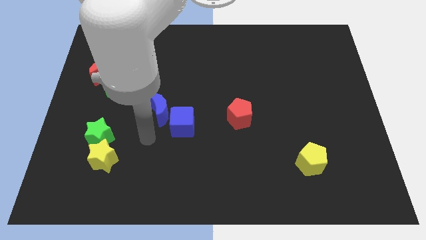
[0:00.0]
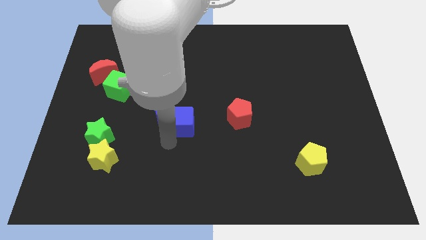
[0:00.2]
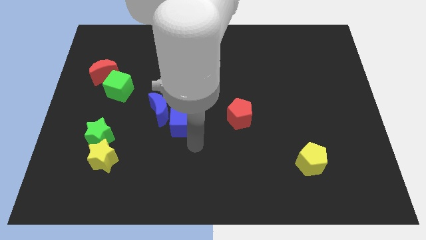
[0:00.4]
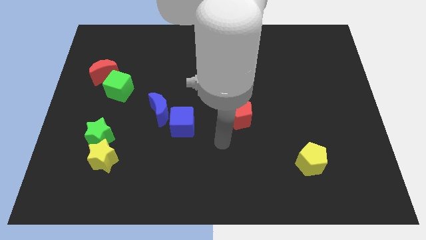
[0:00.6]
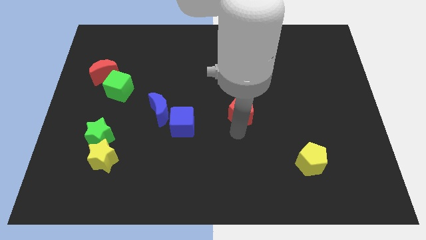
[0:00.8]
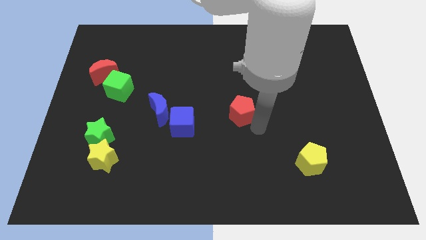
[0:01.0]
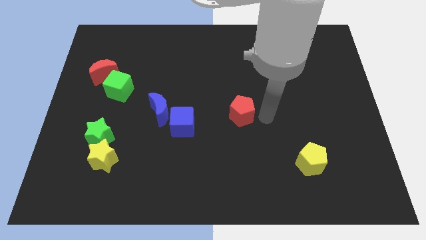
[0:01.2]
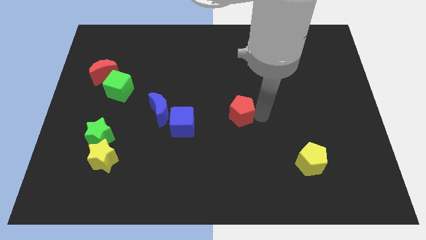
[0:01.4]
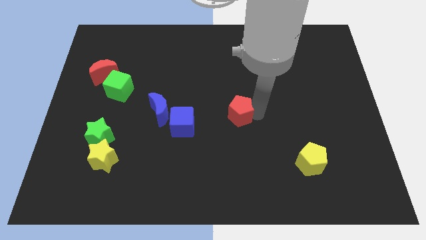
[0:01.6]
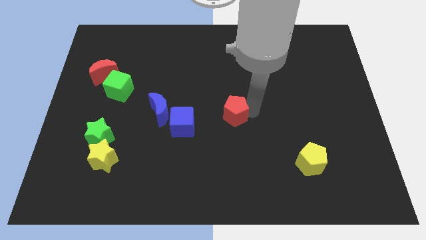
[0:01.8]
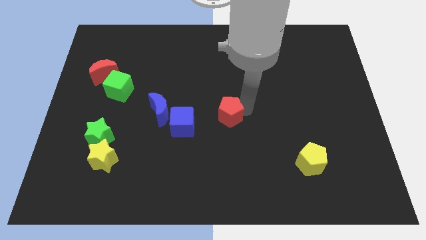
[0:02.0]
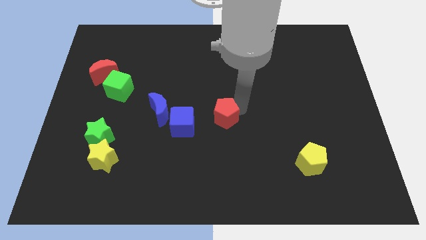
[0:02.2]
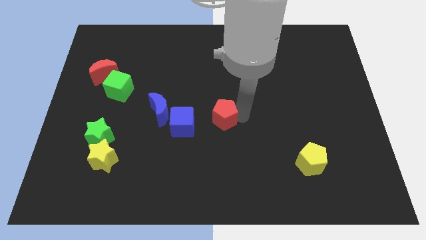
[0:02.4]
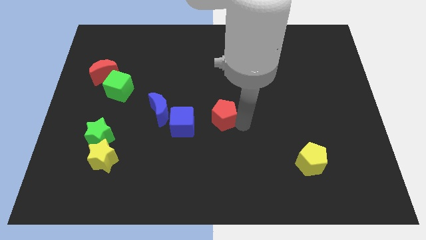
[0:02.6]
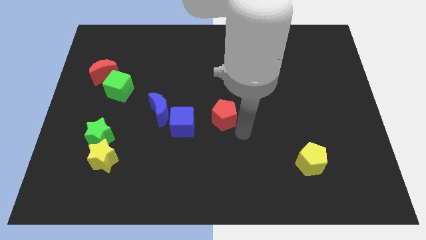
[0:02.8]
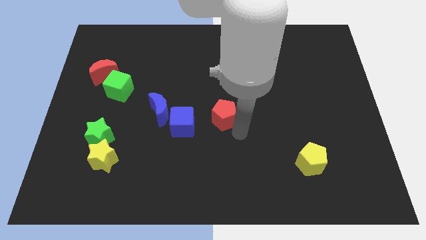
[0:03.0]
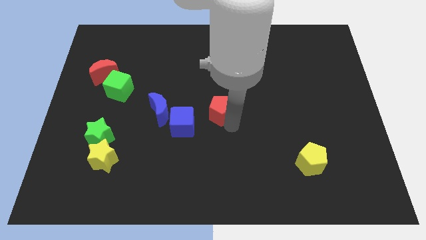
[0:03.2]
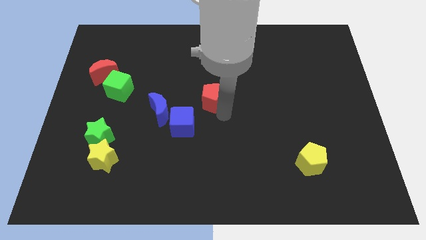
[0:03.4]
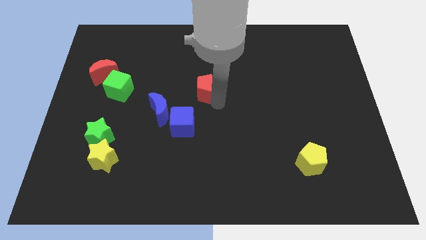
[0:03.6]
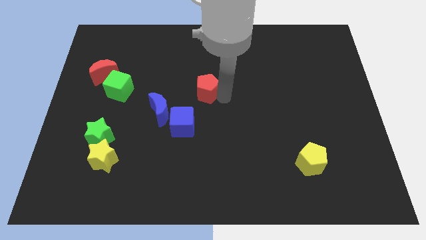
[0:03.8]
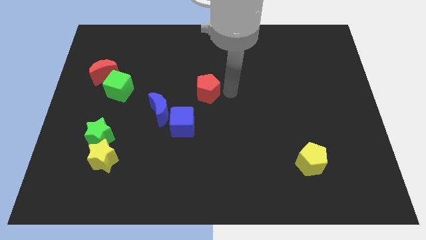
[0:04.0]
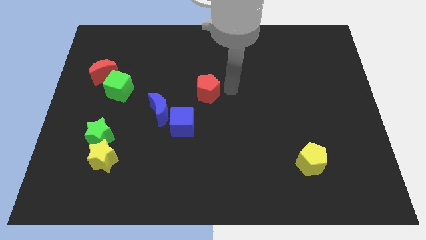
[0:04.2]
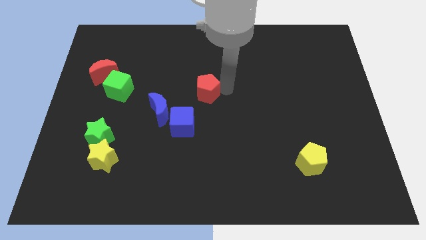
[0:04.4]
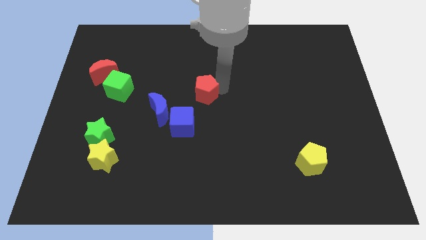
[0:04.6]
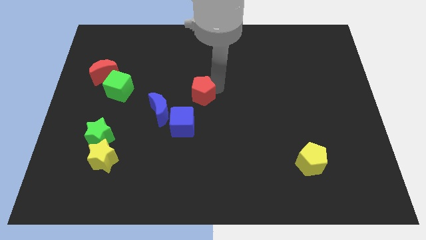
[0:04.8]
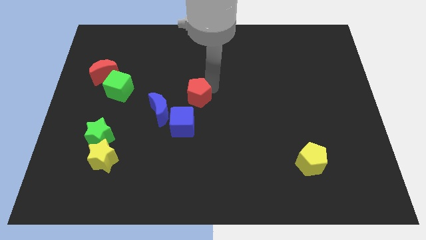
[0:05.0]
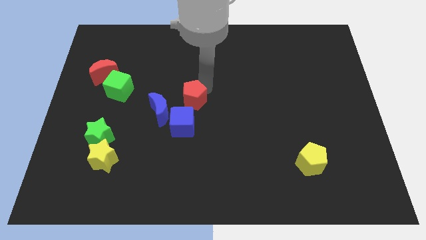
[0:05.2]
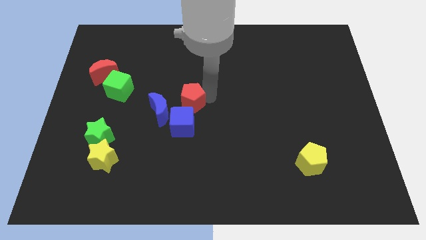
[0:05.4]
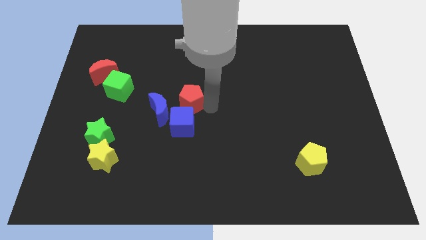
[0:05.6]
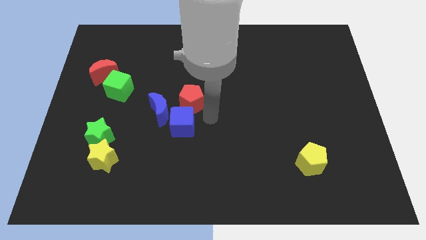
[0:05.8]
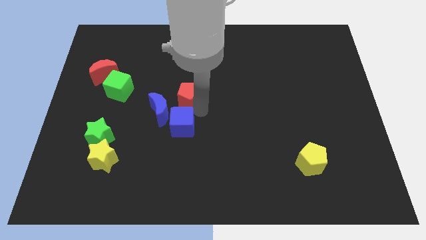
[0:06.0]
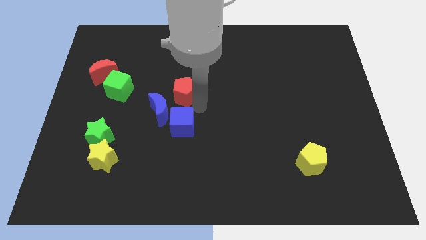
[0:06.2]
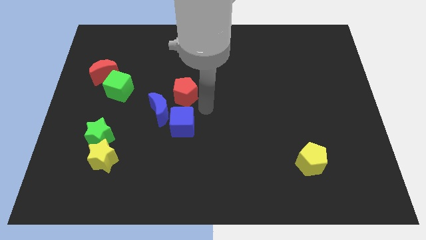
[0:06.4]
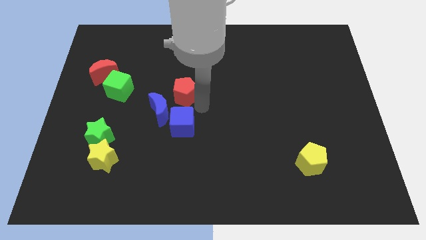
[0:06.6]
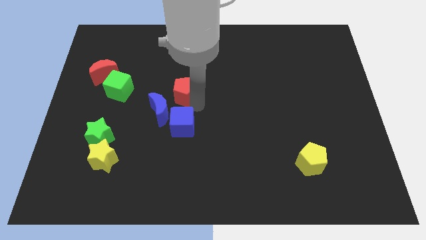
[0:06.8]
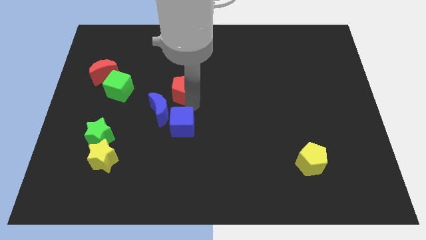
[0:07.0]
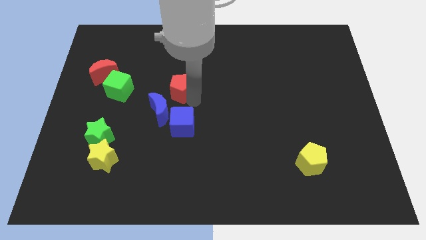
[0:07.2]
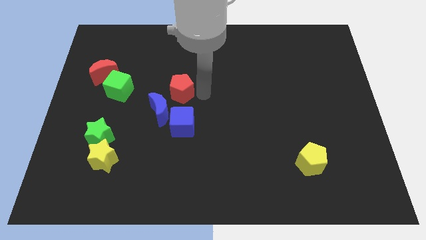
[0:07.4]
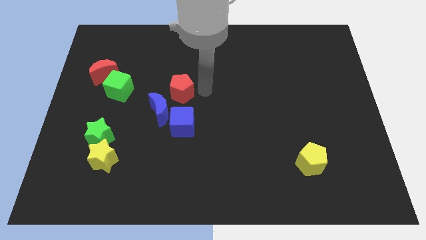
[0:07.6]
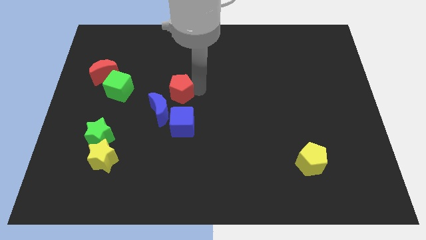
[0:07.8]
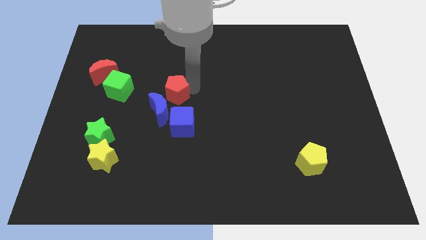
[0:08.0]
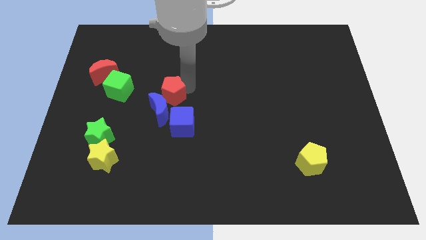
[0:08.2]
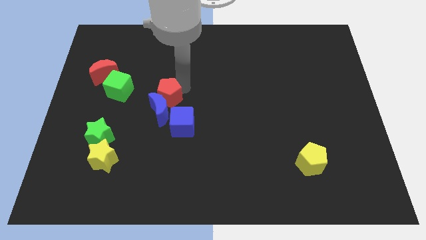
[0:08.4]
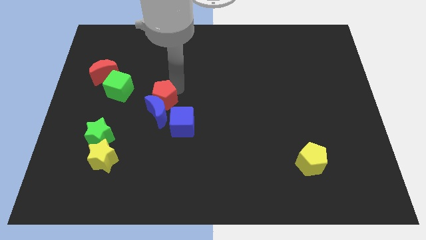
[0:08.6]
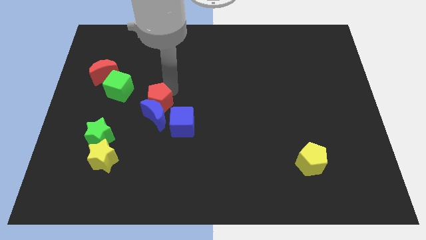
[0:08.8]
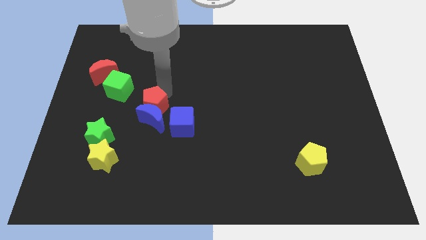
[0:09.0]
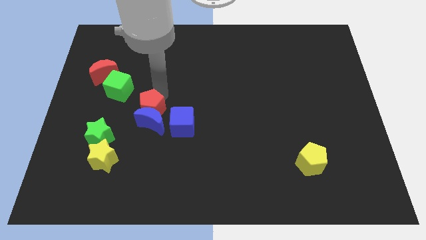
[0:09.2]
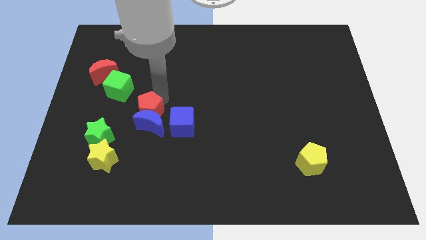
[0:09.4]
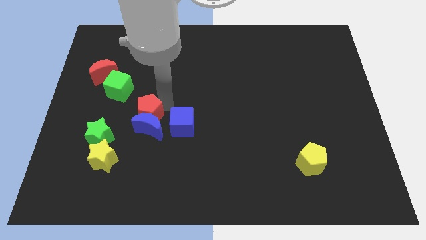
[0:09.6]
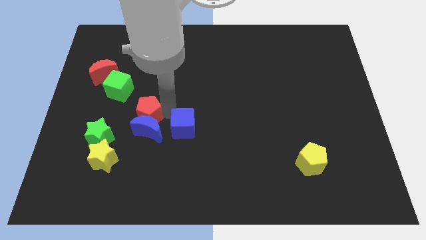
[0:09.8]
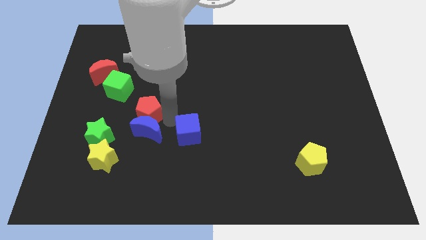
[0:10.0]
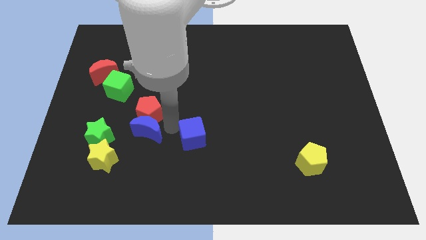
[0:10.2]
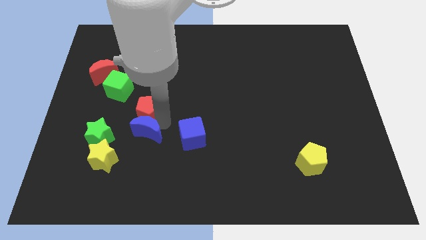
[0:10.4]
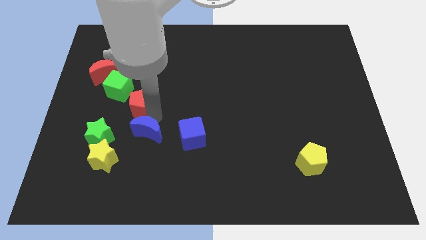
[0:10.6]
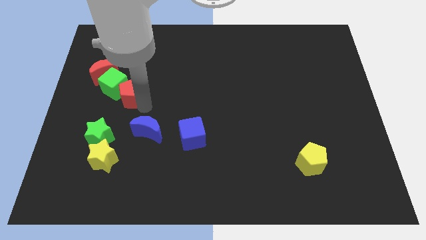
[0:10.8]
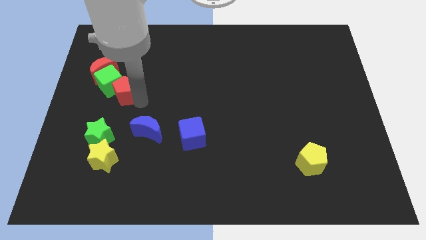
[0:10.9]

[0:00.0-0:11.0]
push the red pentagon above the green star
